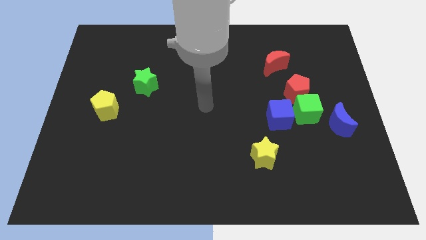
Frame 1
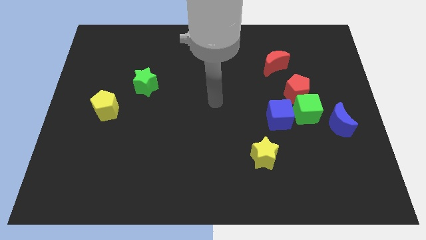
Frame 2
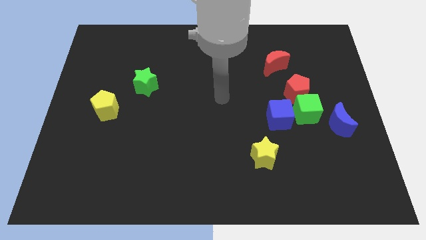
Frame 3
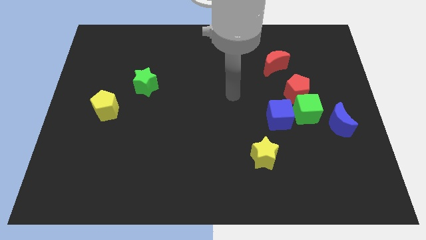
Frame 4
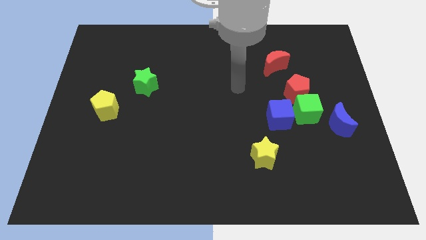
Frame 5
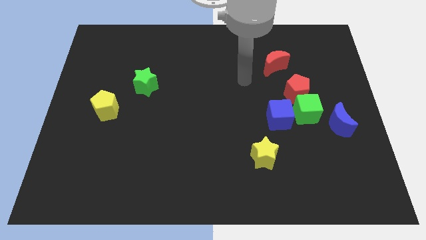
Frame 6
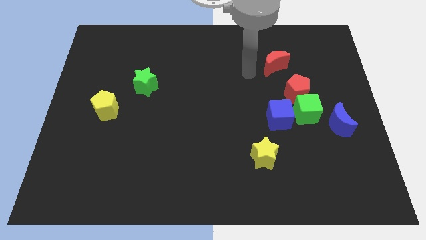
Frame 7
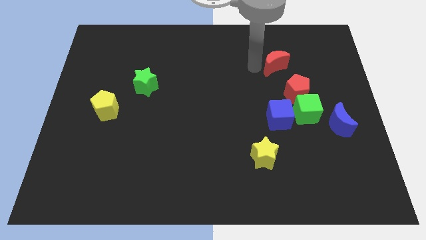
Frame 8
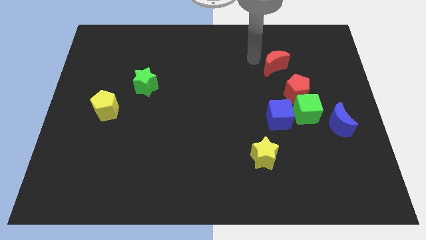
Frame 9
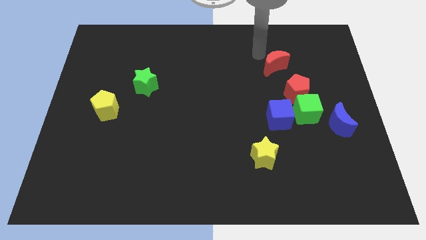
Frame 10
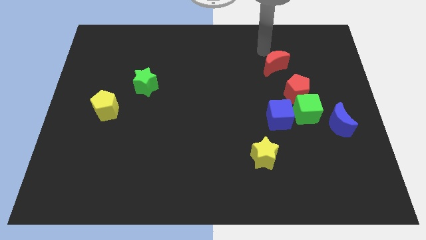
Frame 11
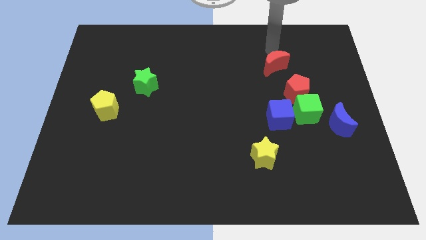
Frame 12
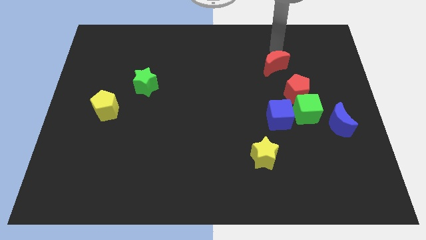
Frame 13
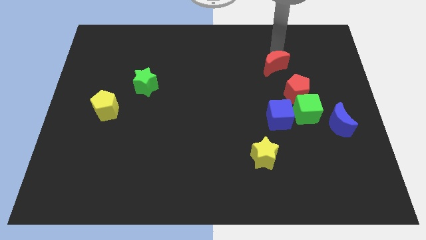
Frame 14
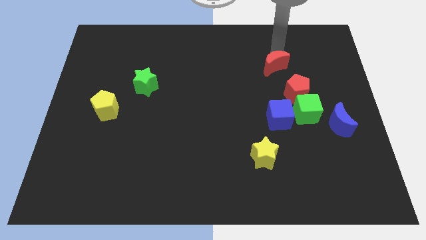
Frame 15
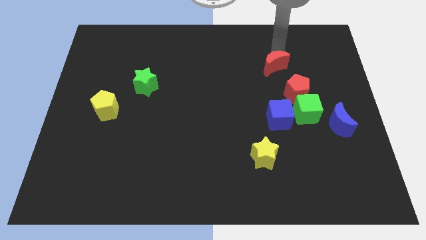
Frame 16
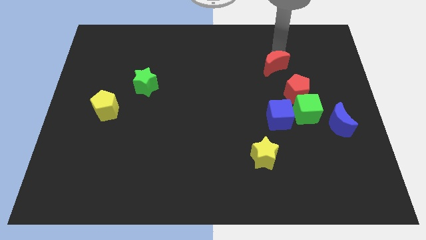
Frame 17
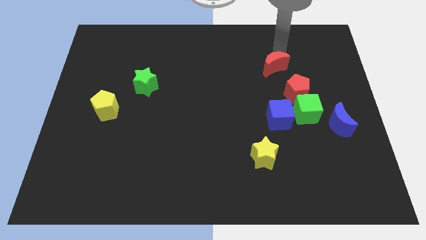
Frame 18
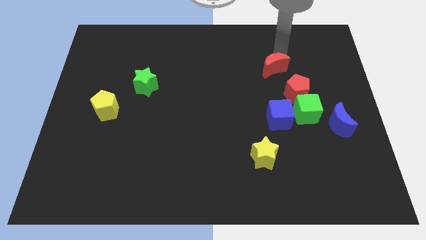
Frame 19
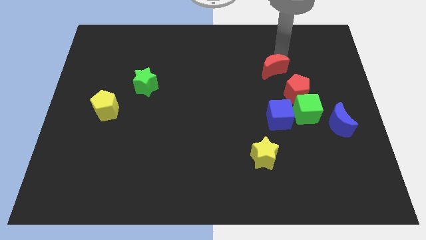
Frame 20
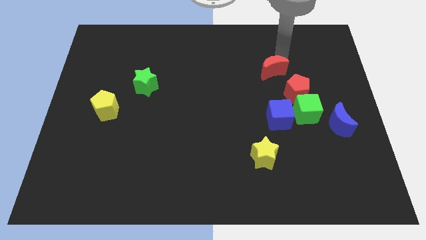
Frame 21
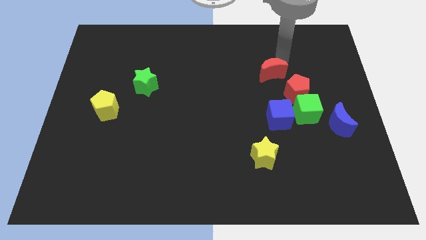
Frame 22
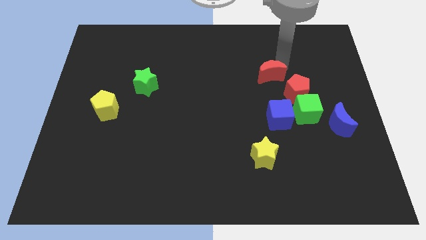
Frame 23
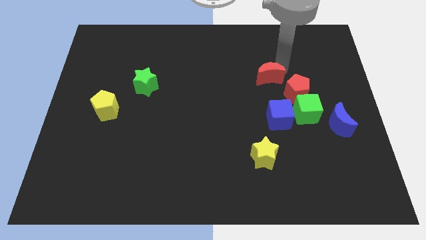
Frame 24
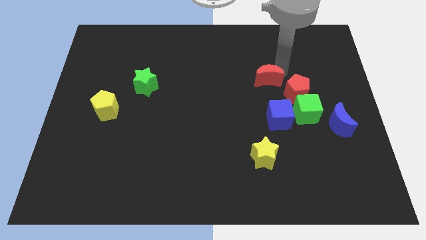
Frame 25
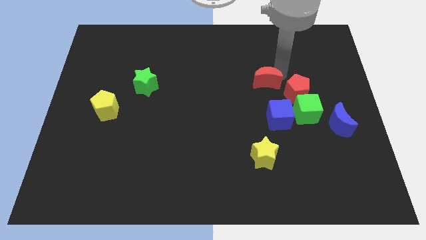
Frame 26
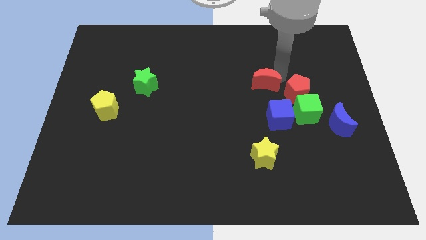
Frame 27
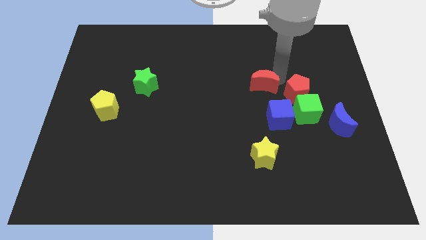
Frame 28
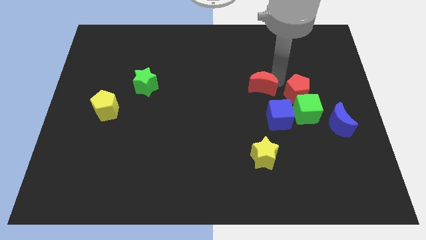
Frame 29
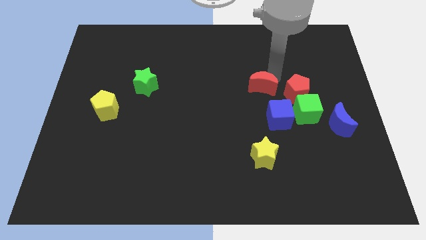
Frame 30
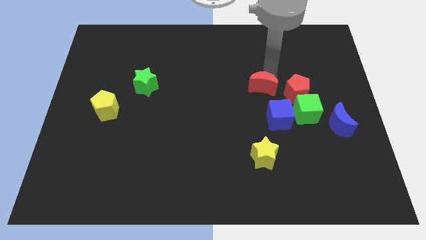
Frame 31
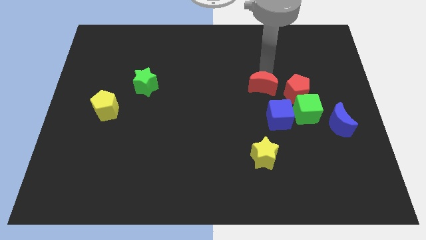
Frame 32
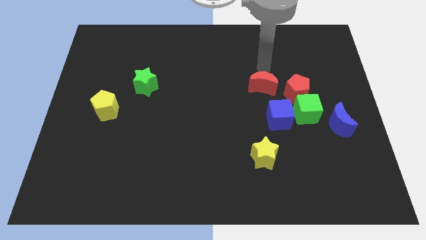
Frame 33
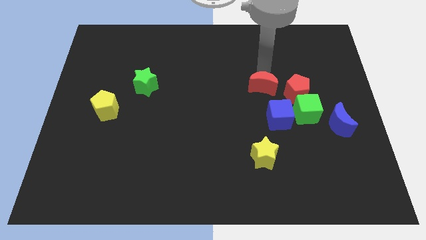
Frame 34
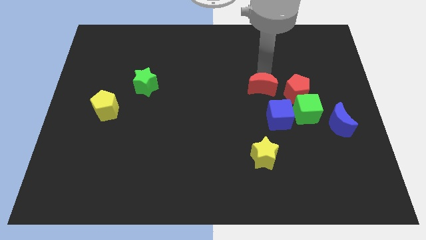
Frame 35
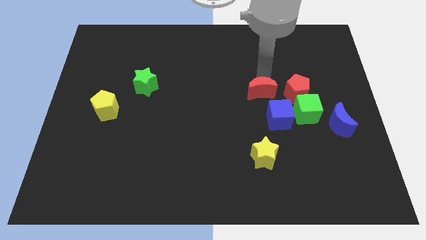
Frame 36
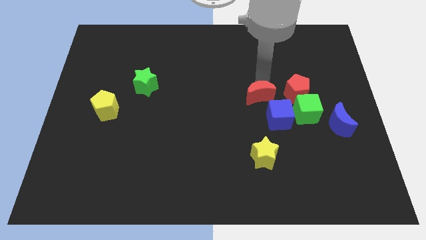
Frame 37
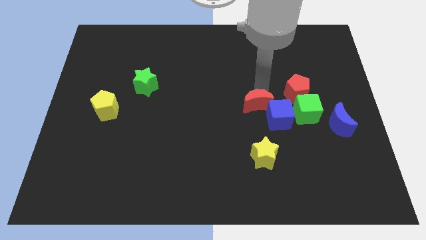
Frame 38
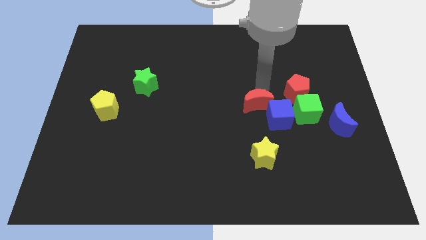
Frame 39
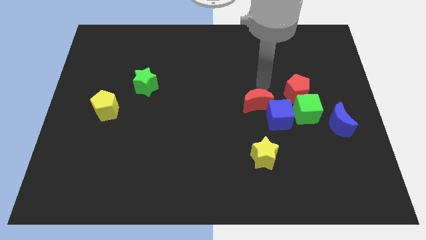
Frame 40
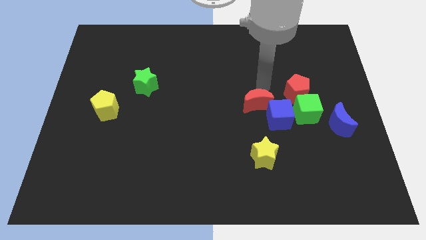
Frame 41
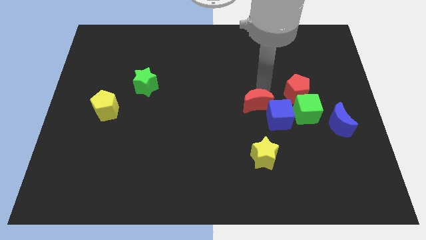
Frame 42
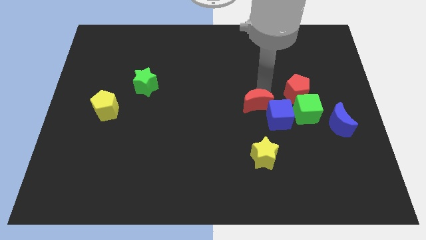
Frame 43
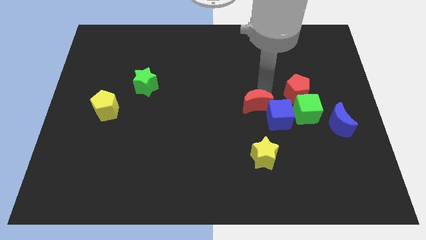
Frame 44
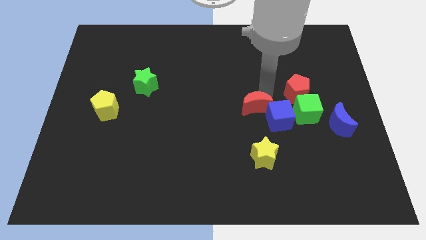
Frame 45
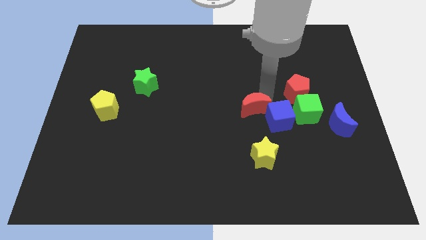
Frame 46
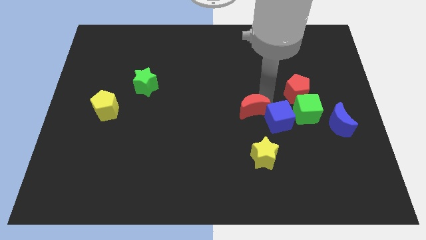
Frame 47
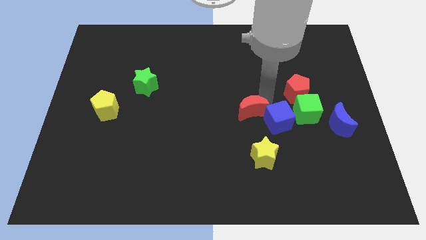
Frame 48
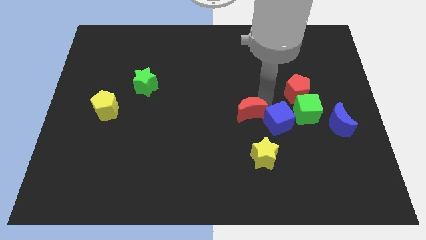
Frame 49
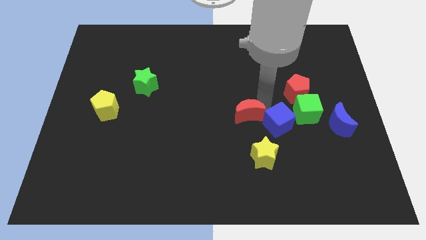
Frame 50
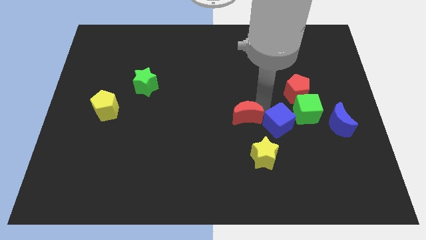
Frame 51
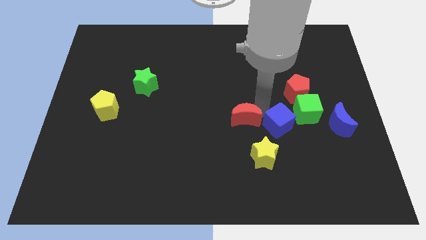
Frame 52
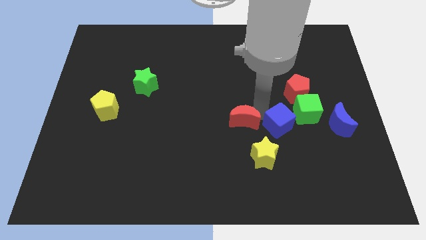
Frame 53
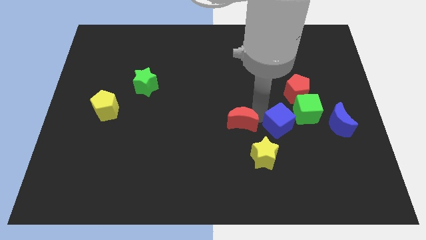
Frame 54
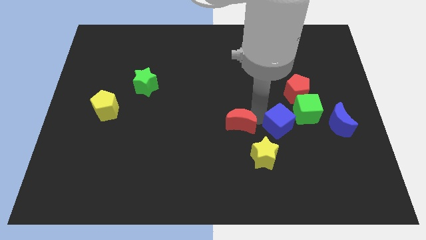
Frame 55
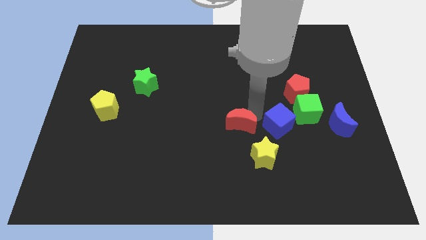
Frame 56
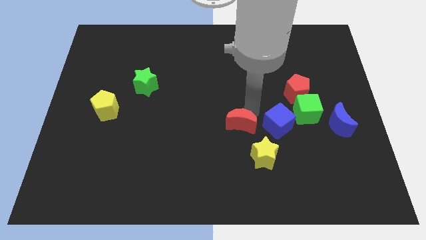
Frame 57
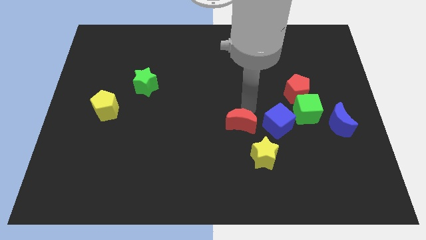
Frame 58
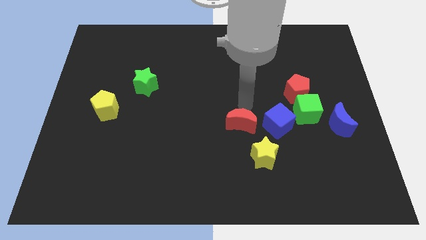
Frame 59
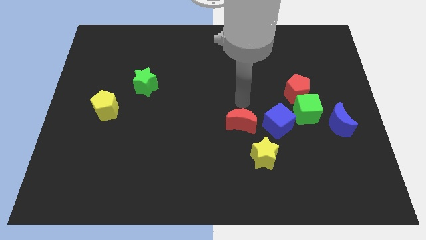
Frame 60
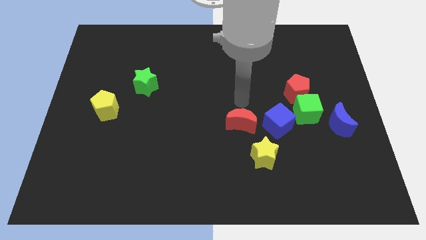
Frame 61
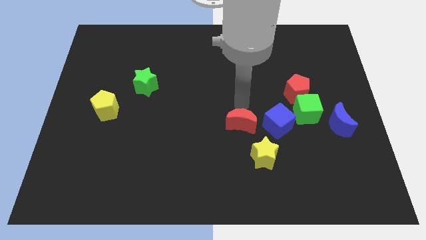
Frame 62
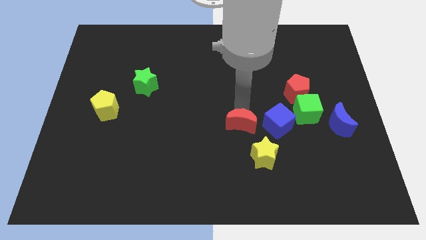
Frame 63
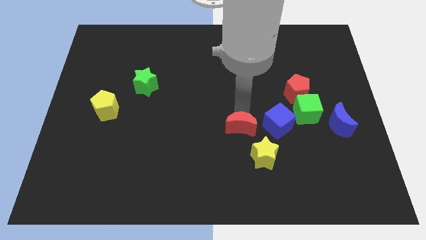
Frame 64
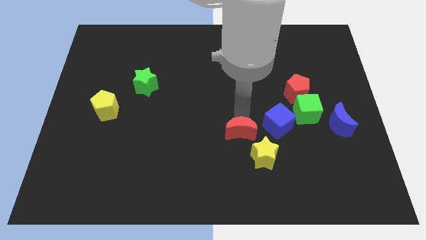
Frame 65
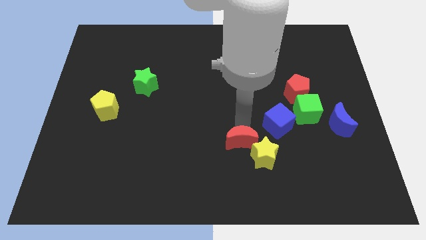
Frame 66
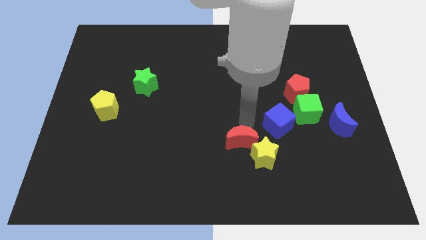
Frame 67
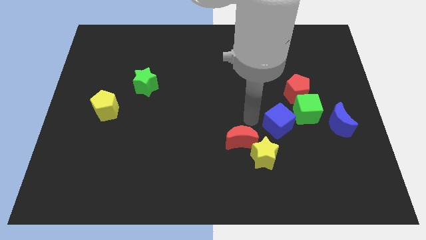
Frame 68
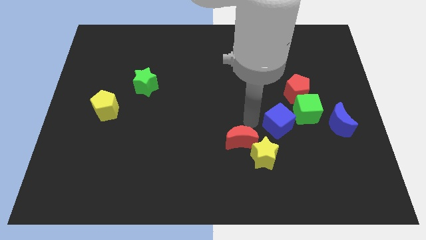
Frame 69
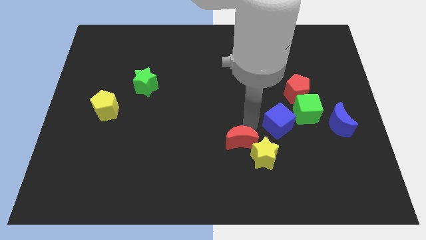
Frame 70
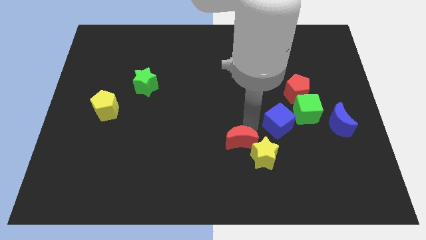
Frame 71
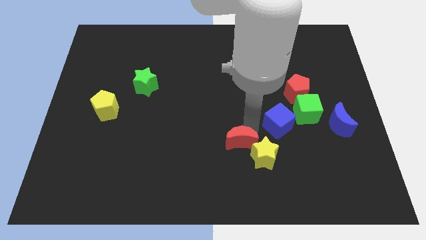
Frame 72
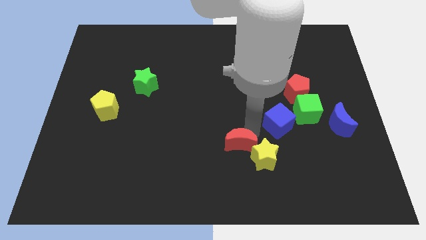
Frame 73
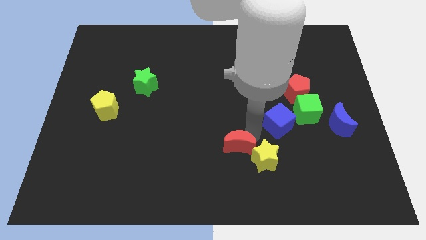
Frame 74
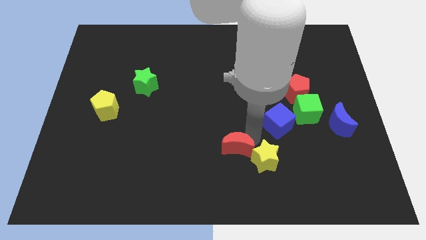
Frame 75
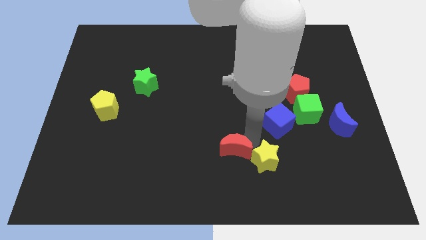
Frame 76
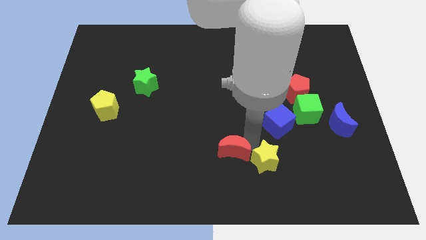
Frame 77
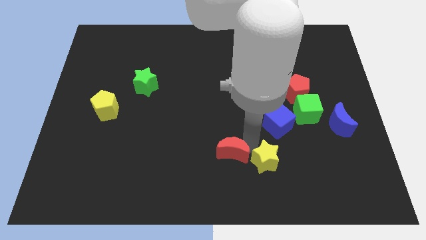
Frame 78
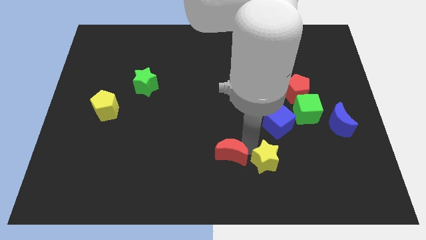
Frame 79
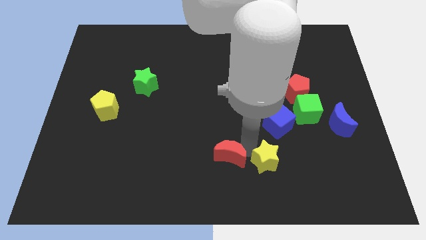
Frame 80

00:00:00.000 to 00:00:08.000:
slide the red moon to the bottom side
